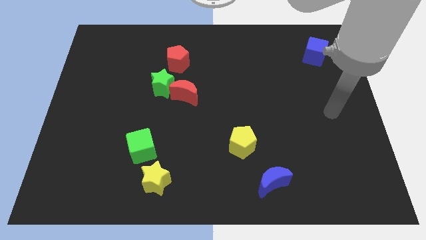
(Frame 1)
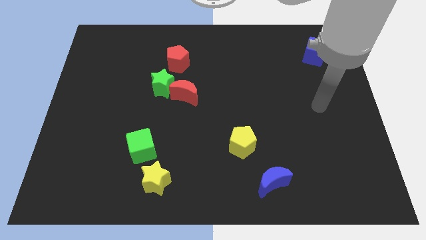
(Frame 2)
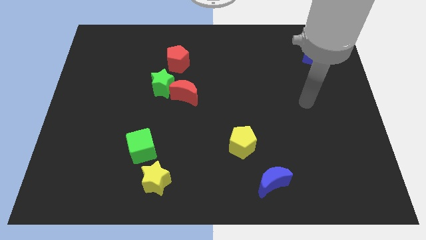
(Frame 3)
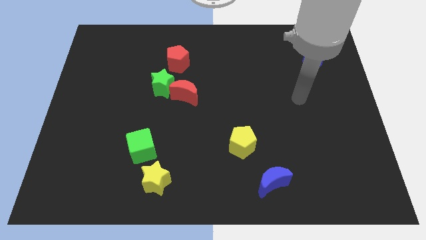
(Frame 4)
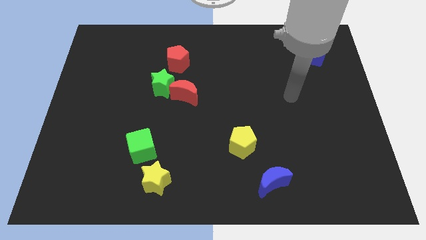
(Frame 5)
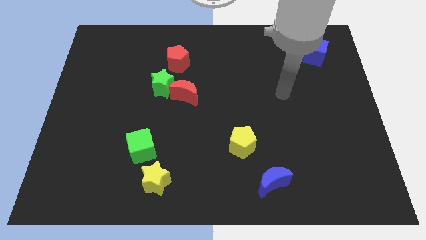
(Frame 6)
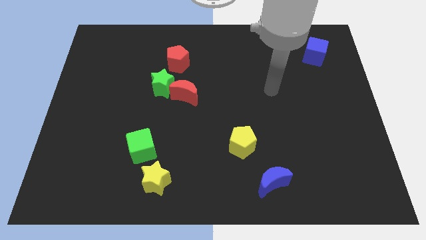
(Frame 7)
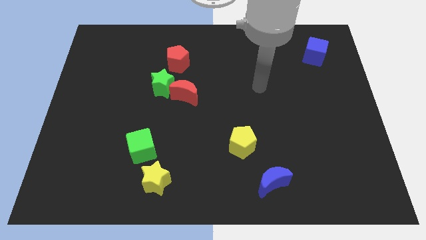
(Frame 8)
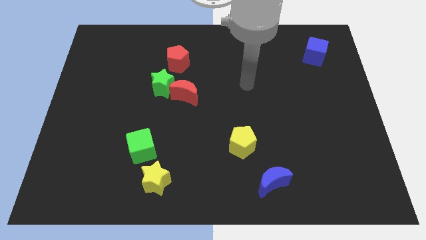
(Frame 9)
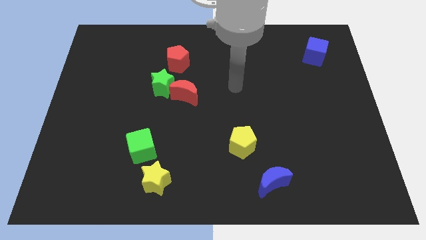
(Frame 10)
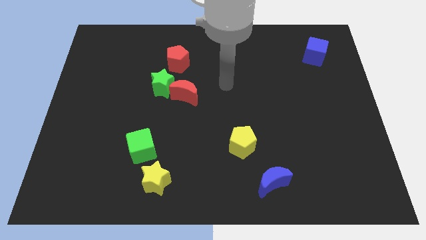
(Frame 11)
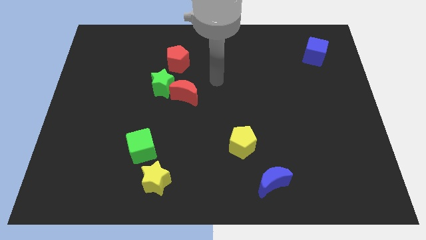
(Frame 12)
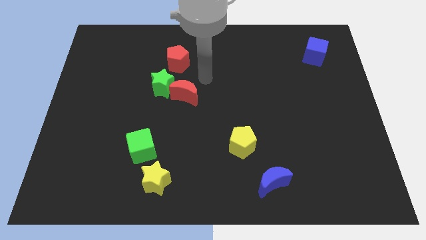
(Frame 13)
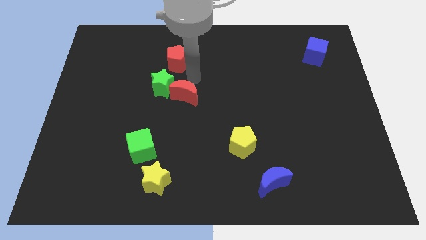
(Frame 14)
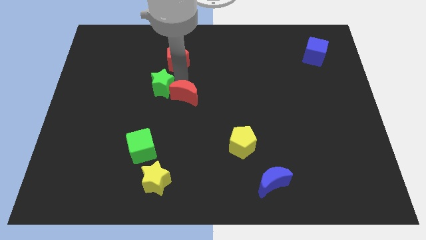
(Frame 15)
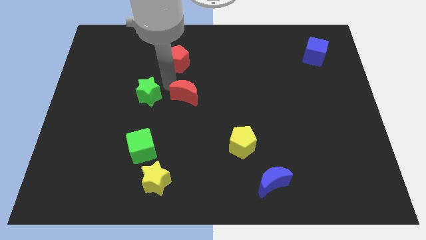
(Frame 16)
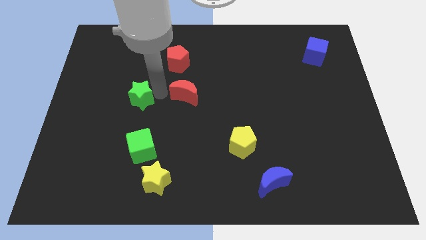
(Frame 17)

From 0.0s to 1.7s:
separate the red moon from the green star

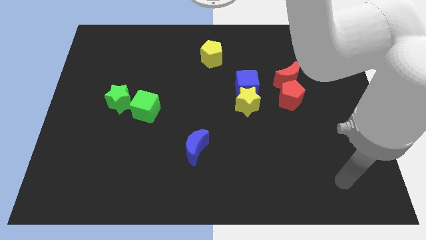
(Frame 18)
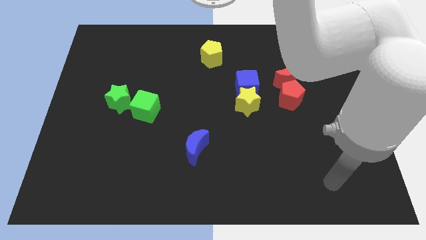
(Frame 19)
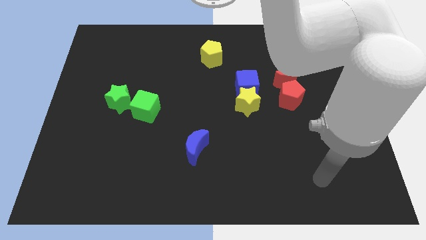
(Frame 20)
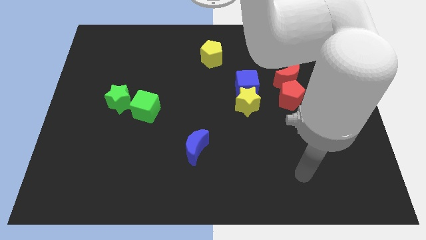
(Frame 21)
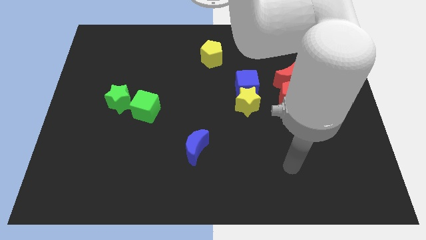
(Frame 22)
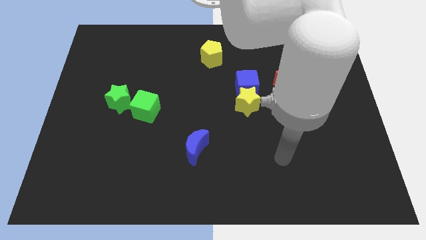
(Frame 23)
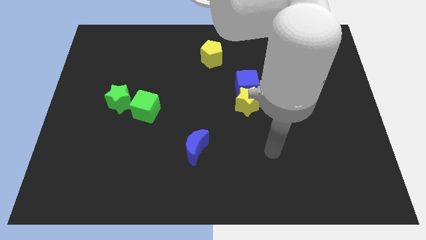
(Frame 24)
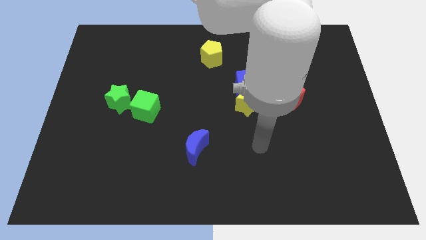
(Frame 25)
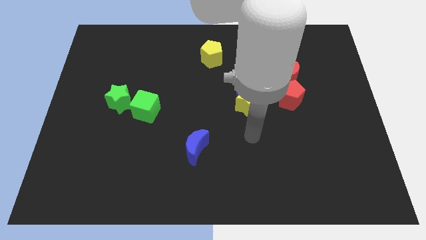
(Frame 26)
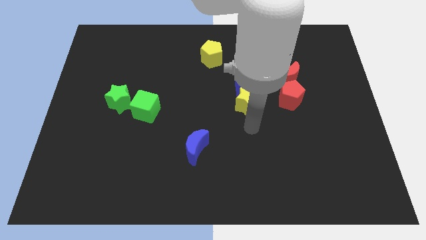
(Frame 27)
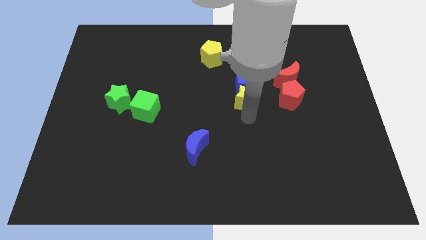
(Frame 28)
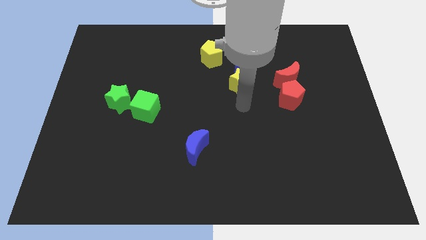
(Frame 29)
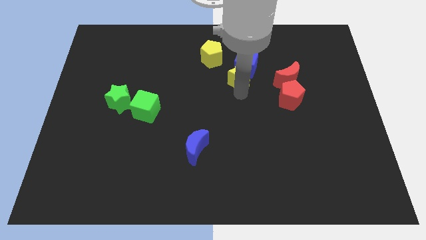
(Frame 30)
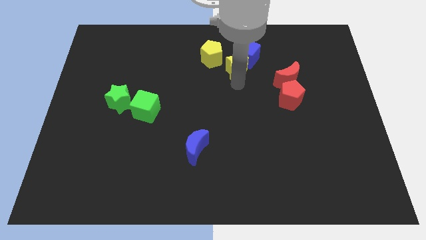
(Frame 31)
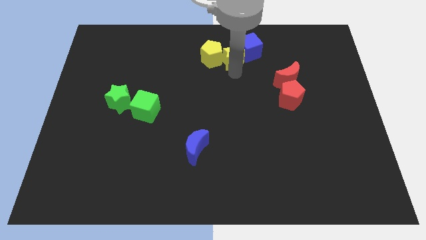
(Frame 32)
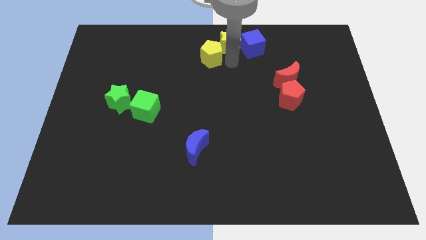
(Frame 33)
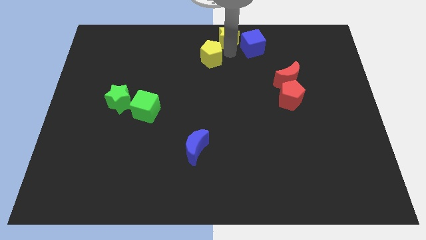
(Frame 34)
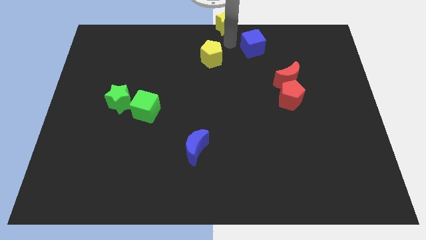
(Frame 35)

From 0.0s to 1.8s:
move the blue cube away from the yellow star

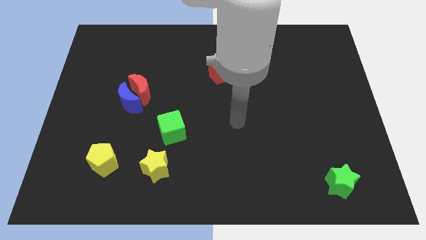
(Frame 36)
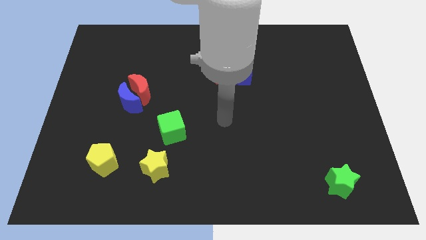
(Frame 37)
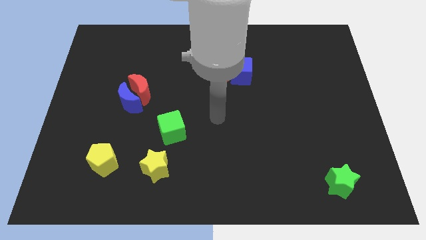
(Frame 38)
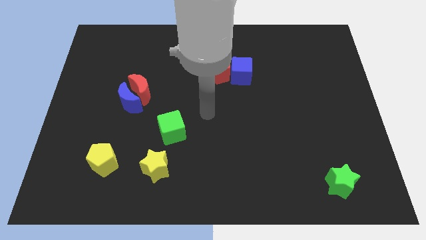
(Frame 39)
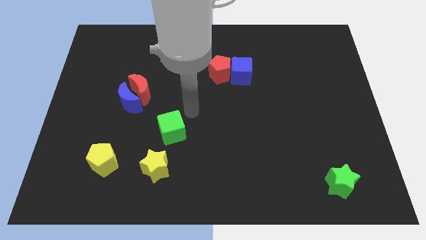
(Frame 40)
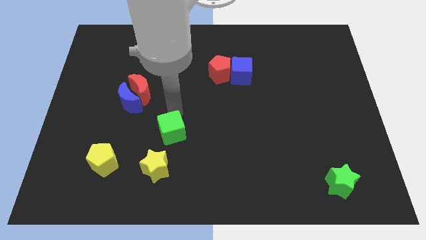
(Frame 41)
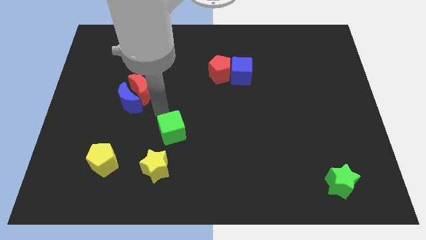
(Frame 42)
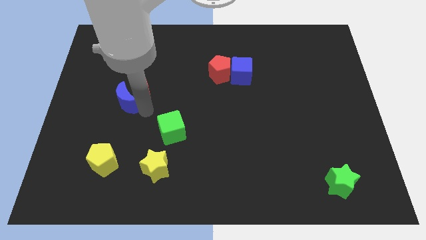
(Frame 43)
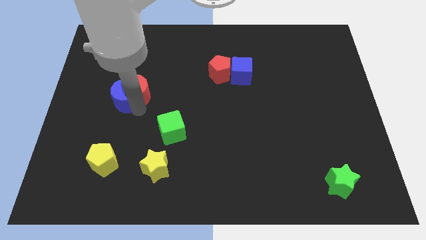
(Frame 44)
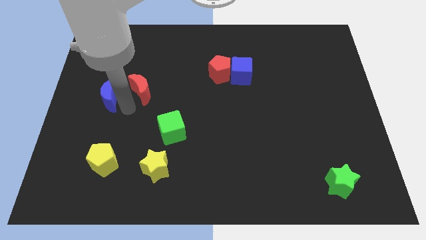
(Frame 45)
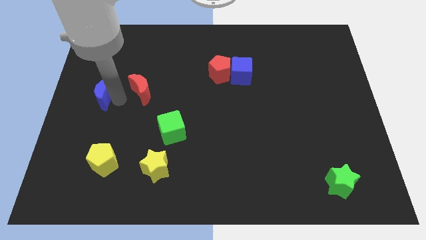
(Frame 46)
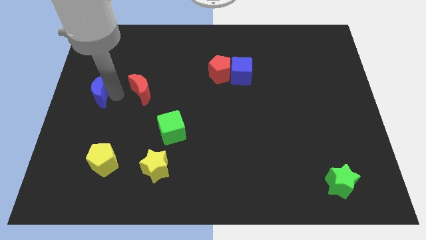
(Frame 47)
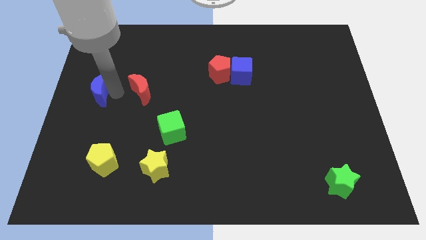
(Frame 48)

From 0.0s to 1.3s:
pull the red moon apart from the blue moon

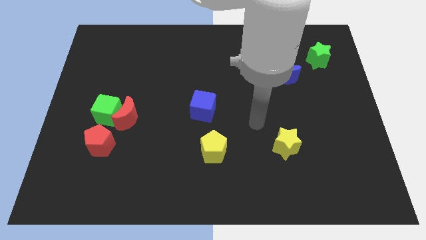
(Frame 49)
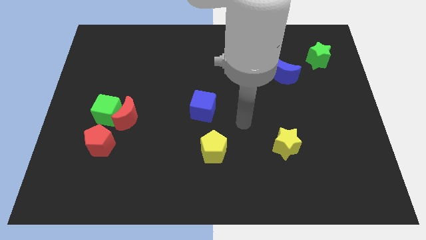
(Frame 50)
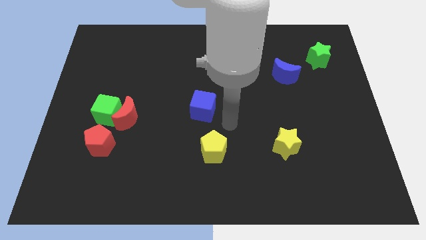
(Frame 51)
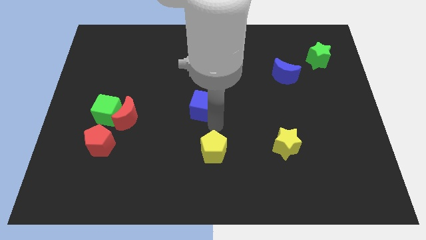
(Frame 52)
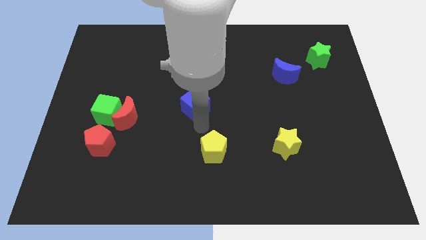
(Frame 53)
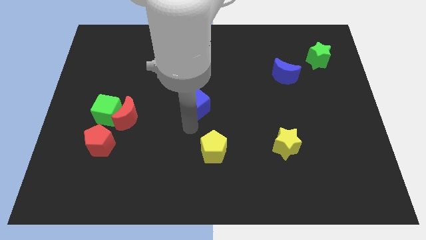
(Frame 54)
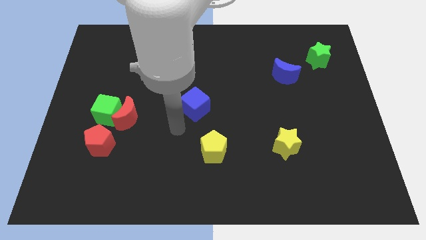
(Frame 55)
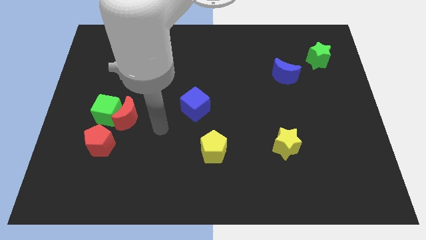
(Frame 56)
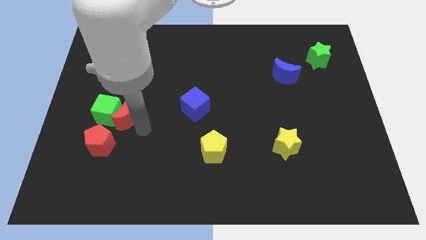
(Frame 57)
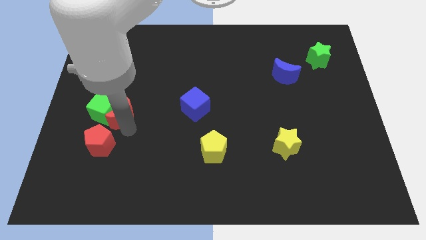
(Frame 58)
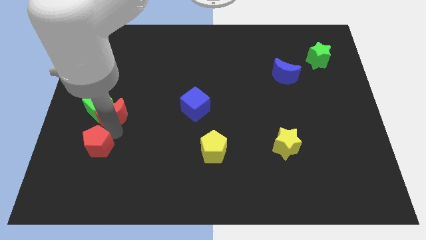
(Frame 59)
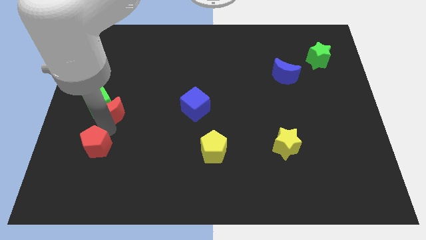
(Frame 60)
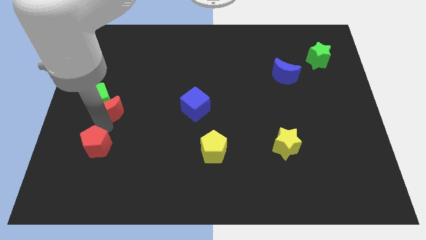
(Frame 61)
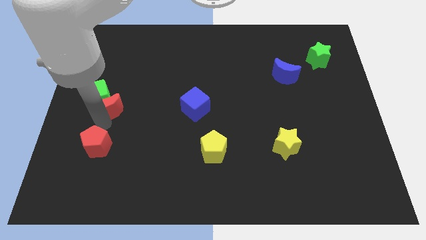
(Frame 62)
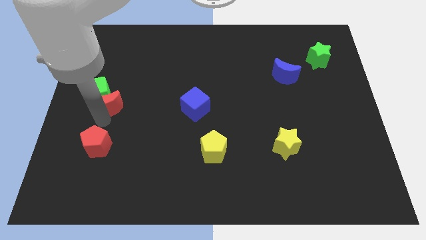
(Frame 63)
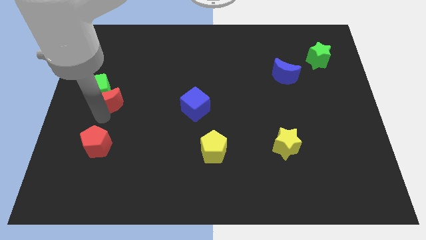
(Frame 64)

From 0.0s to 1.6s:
move the green cube away from the red moon and red pentagon

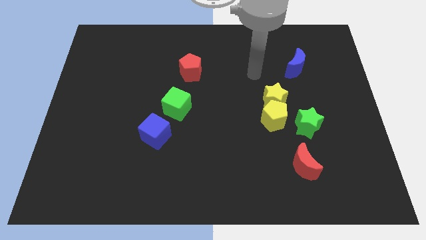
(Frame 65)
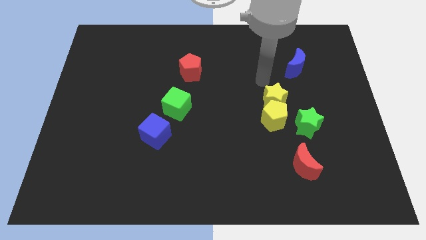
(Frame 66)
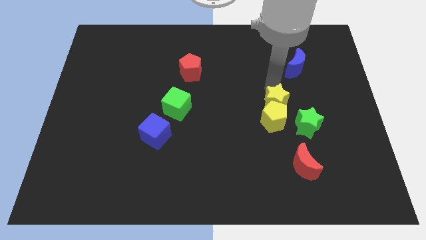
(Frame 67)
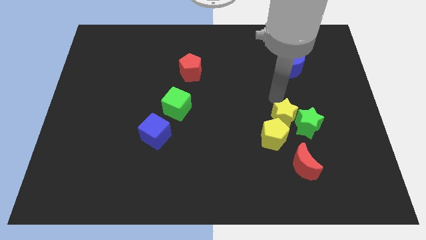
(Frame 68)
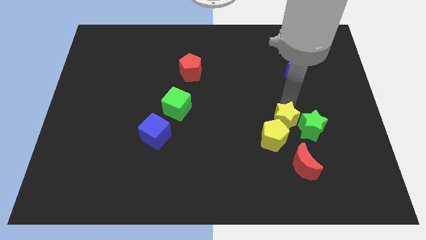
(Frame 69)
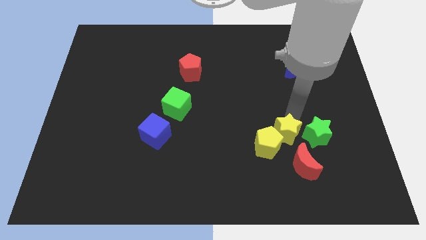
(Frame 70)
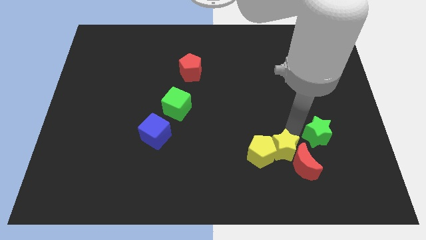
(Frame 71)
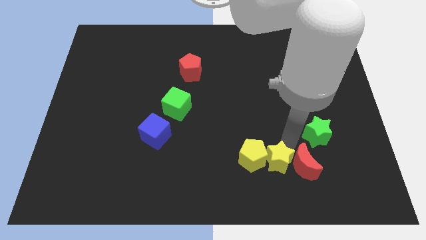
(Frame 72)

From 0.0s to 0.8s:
separate the yellow pentagon from the yellow star and green star

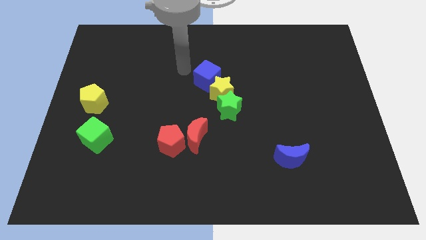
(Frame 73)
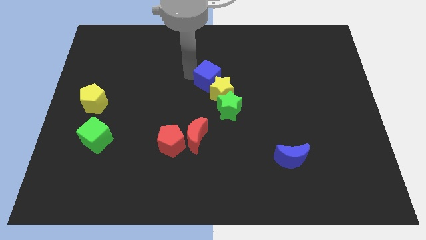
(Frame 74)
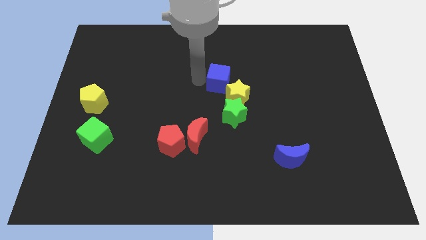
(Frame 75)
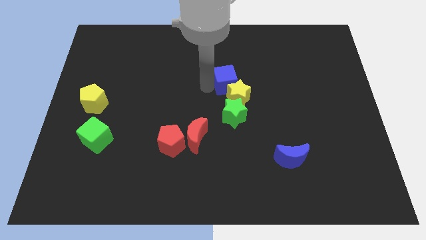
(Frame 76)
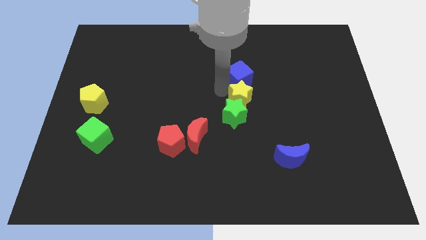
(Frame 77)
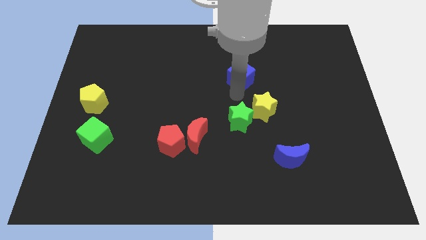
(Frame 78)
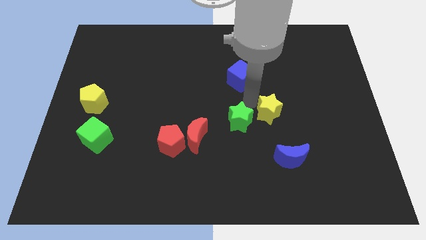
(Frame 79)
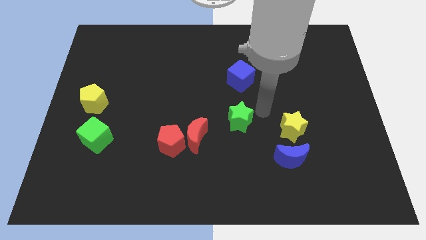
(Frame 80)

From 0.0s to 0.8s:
separate the green star from the yellow star

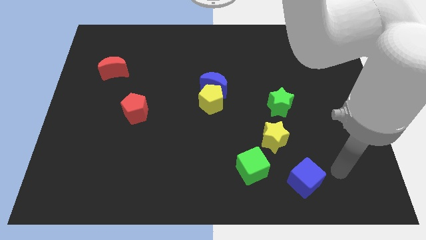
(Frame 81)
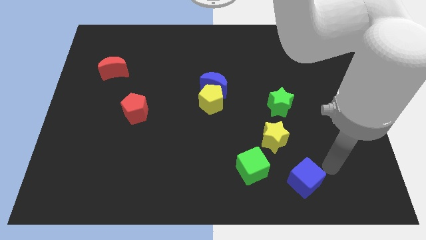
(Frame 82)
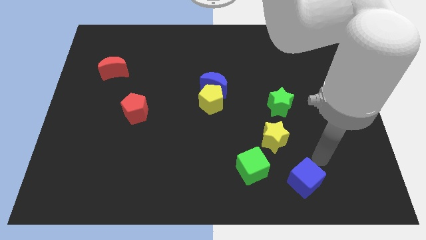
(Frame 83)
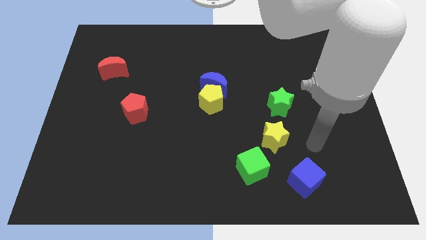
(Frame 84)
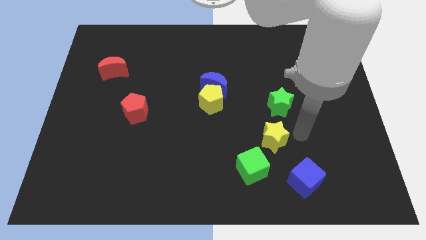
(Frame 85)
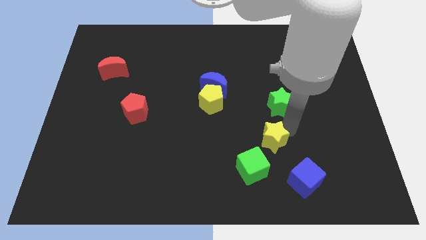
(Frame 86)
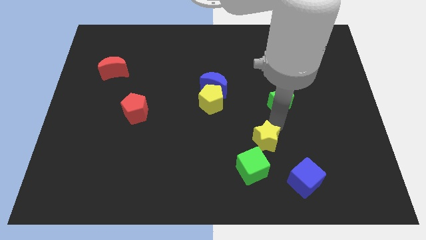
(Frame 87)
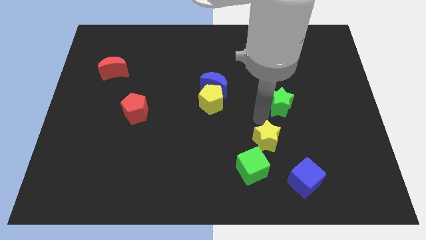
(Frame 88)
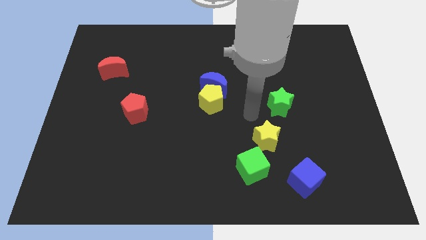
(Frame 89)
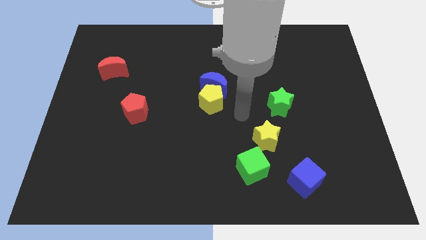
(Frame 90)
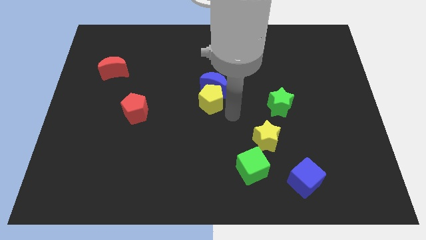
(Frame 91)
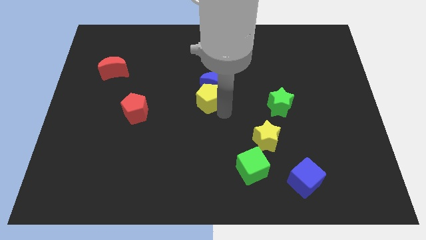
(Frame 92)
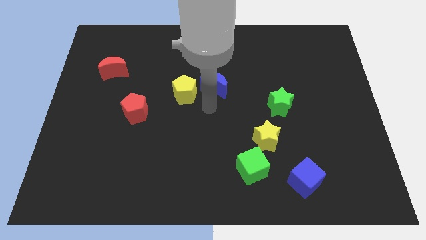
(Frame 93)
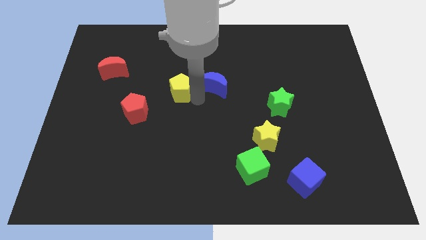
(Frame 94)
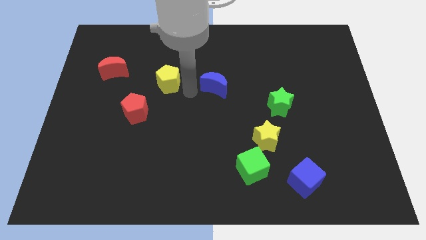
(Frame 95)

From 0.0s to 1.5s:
pull the blue moon apart from the yellow pentagon
